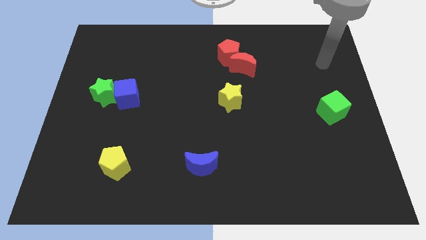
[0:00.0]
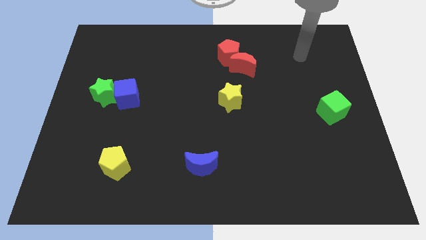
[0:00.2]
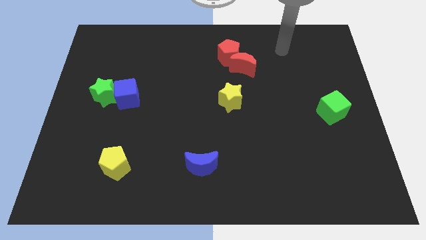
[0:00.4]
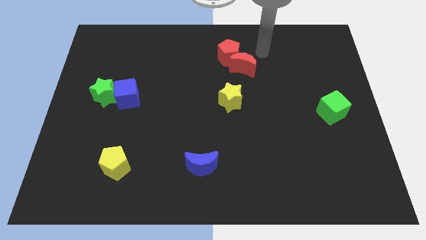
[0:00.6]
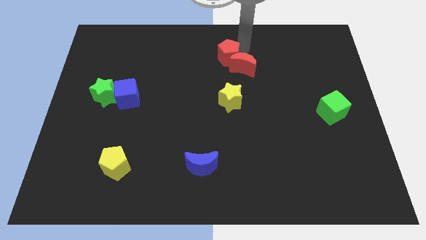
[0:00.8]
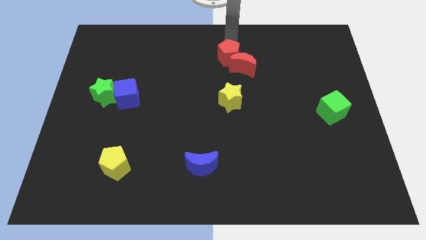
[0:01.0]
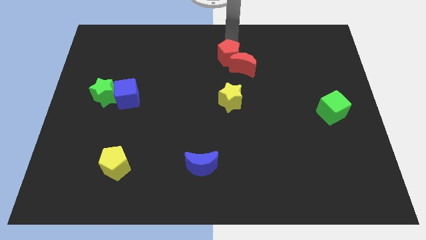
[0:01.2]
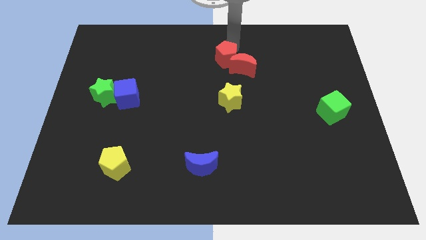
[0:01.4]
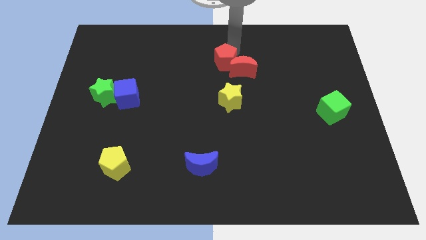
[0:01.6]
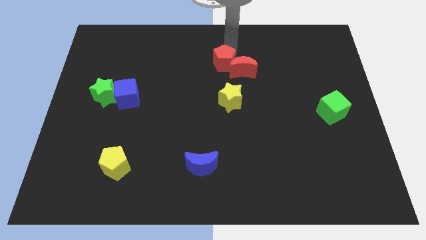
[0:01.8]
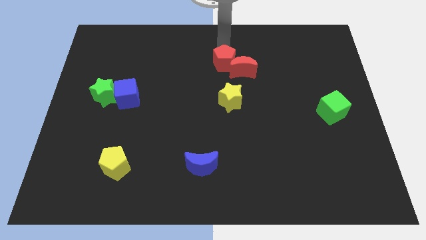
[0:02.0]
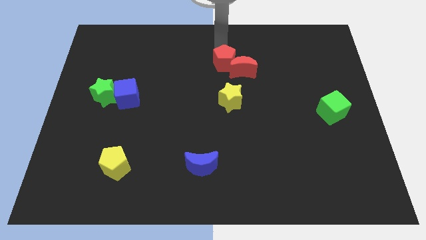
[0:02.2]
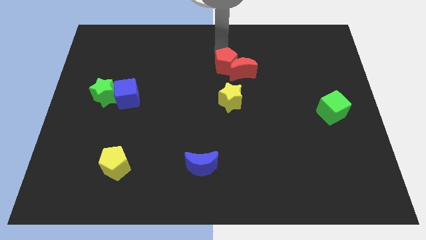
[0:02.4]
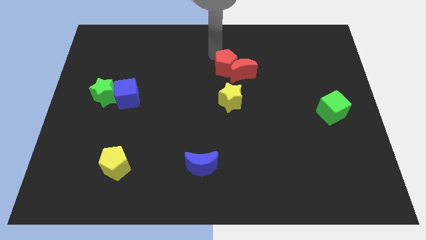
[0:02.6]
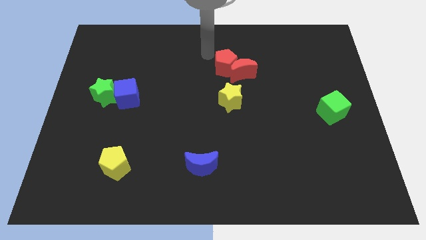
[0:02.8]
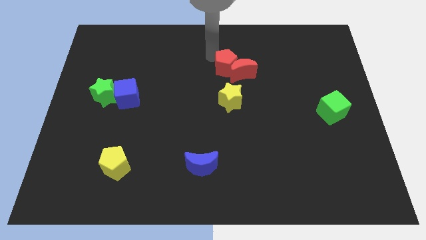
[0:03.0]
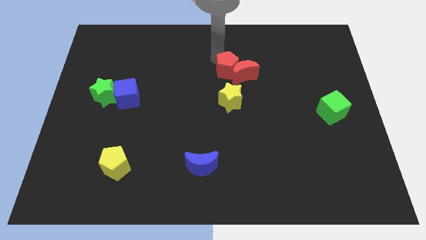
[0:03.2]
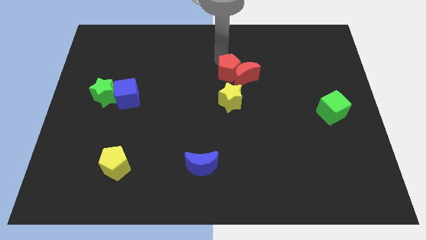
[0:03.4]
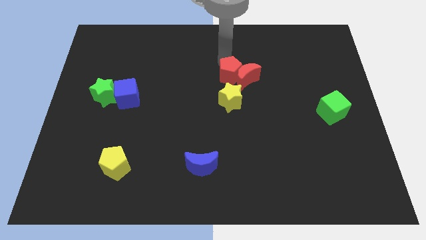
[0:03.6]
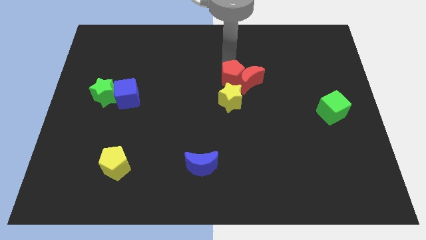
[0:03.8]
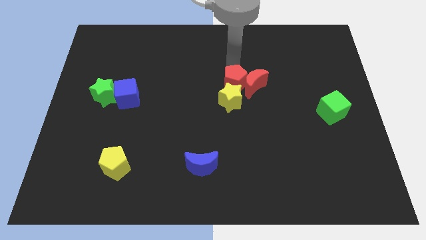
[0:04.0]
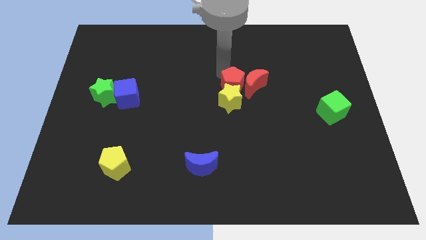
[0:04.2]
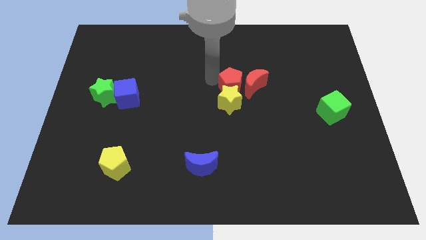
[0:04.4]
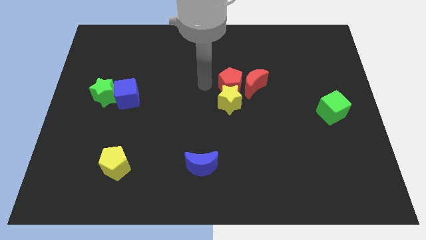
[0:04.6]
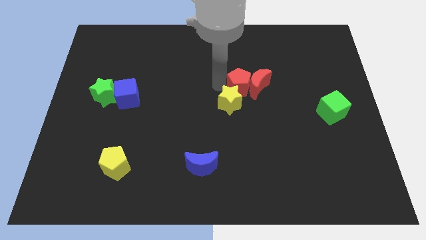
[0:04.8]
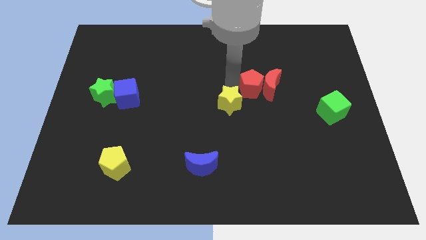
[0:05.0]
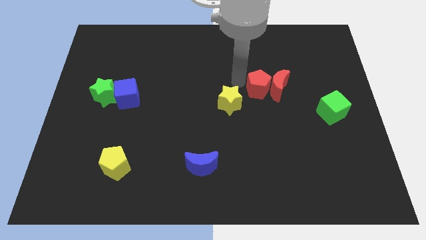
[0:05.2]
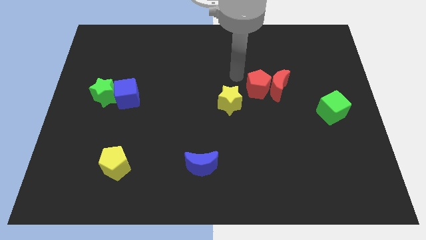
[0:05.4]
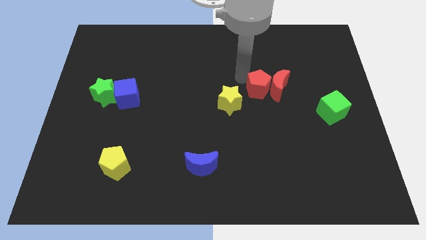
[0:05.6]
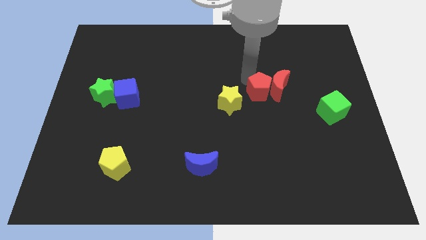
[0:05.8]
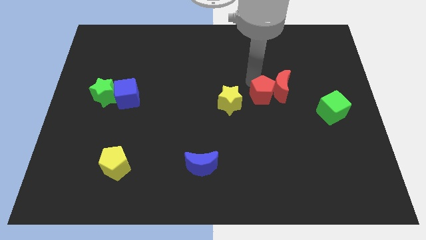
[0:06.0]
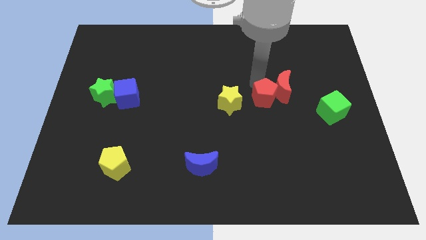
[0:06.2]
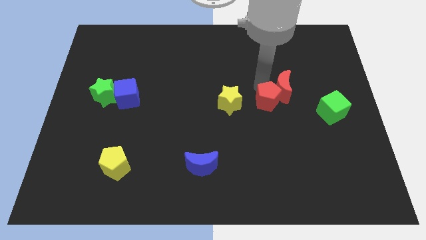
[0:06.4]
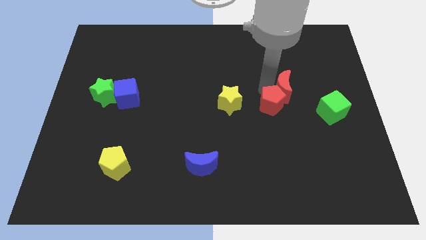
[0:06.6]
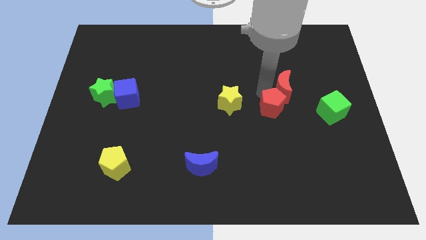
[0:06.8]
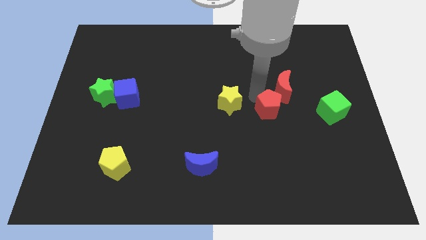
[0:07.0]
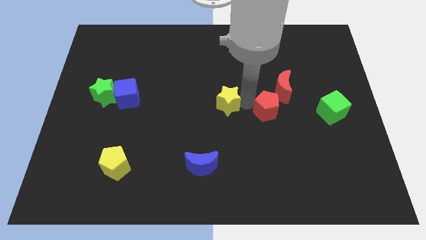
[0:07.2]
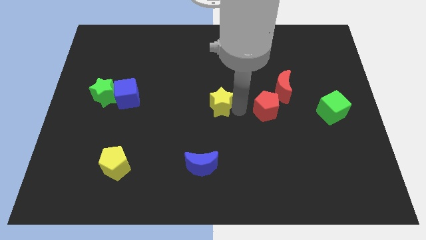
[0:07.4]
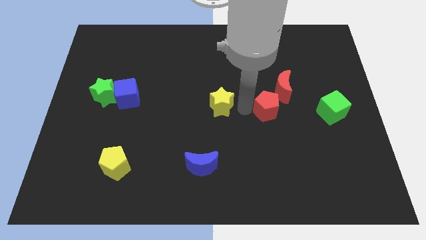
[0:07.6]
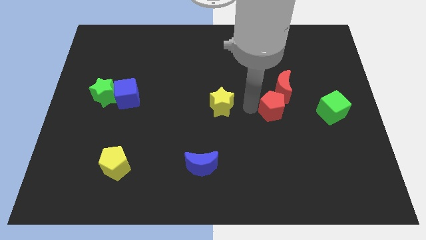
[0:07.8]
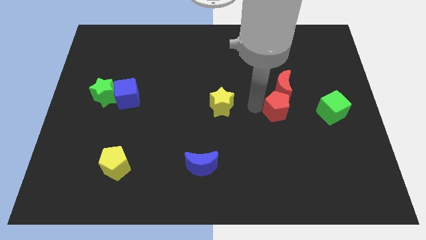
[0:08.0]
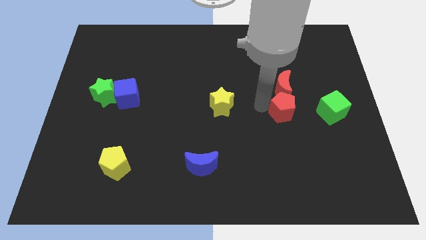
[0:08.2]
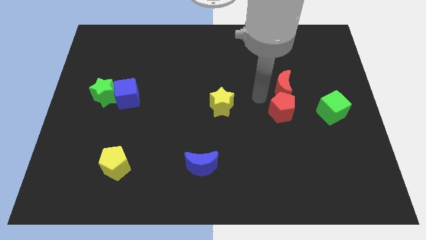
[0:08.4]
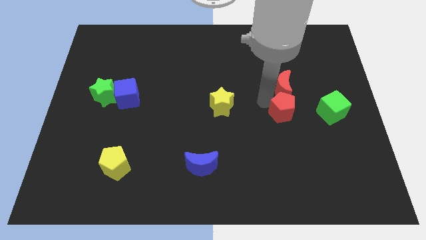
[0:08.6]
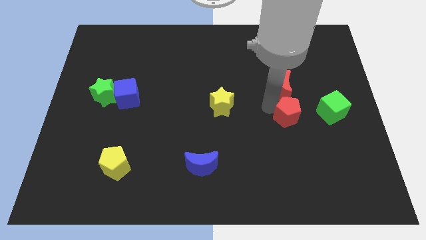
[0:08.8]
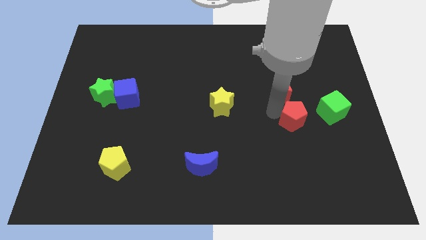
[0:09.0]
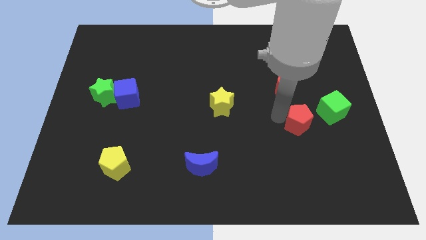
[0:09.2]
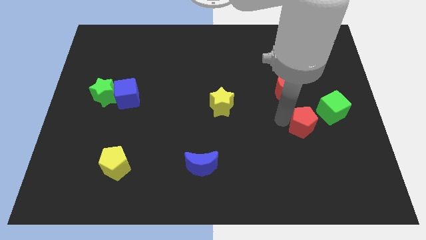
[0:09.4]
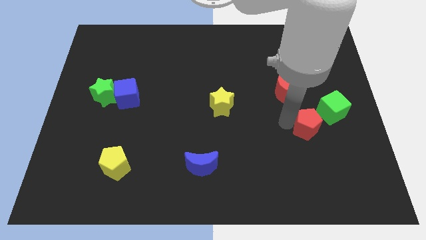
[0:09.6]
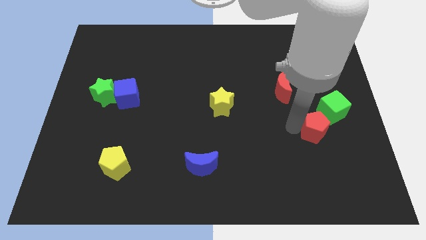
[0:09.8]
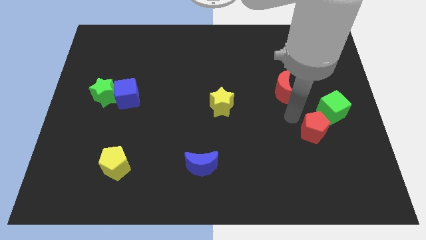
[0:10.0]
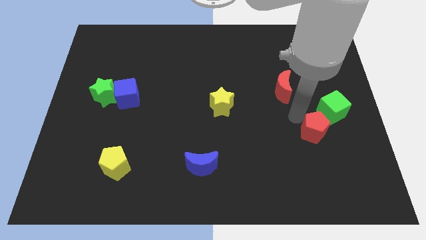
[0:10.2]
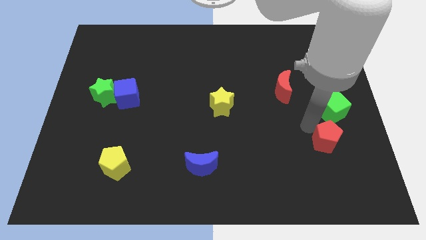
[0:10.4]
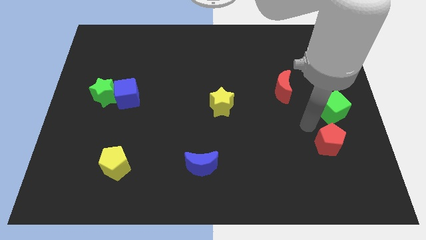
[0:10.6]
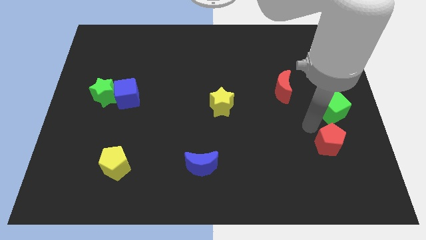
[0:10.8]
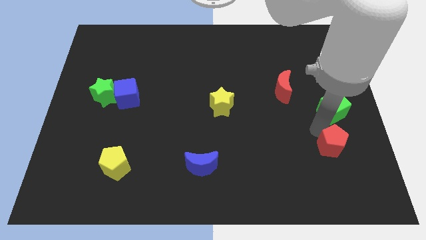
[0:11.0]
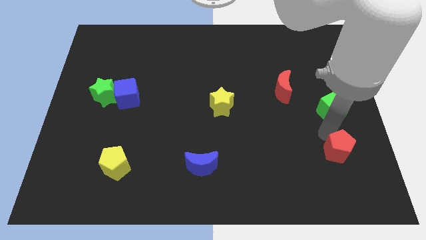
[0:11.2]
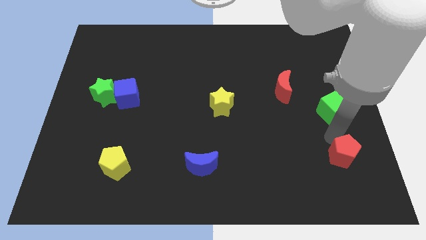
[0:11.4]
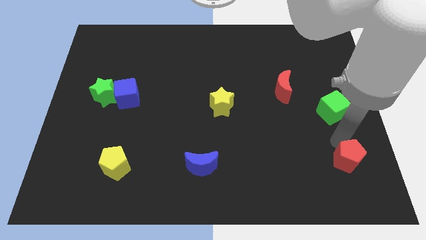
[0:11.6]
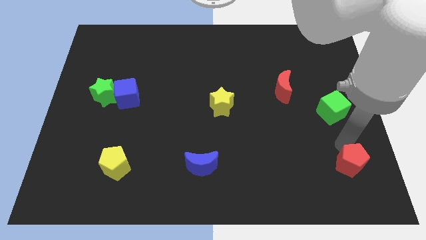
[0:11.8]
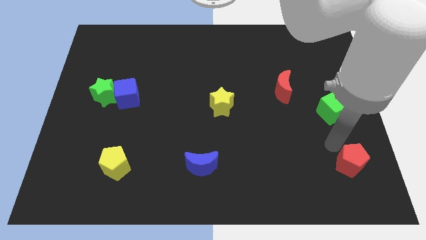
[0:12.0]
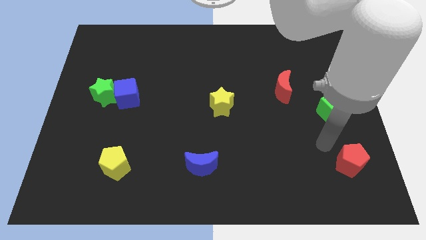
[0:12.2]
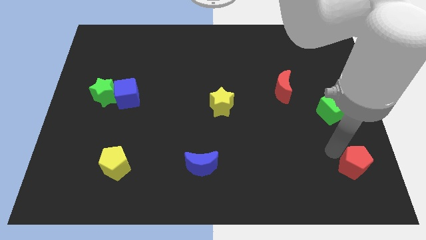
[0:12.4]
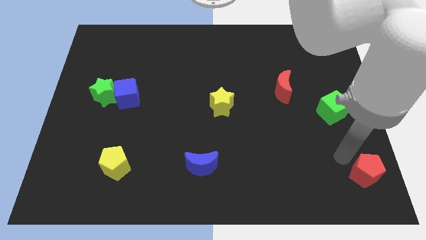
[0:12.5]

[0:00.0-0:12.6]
slide the red pentagon to the bottom right of the board
